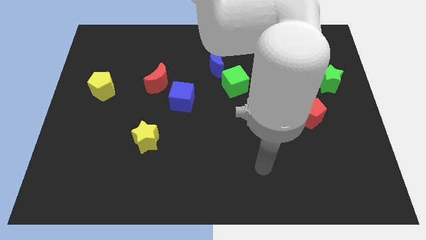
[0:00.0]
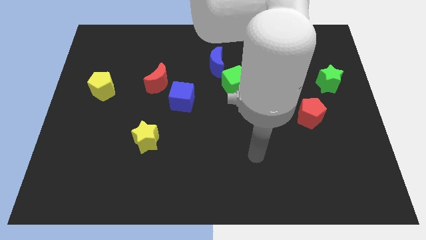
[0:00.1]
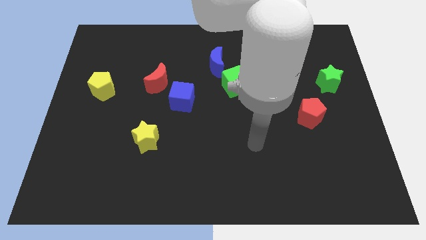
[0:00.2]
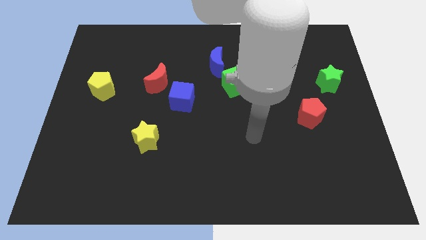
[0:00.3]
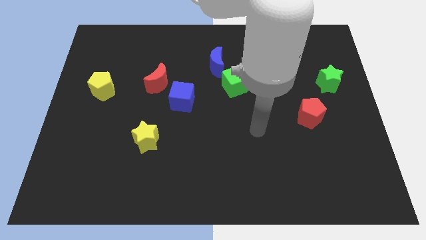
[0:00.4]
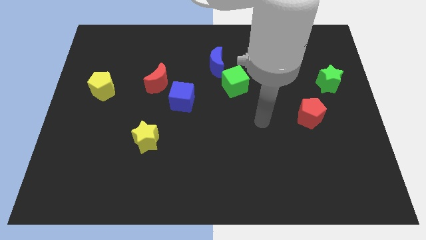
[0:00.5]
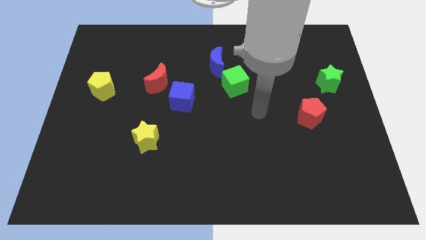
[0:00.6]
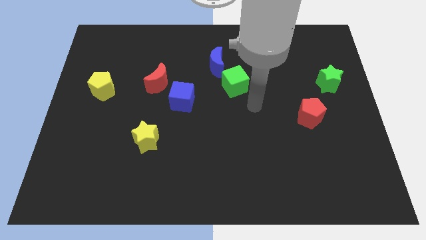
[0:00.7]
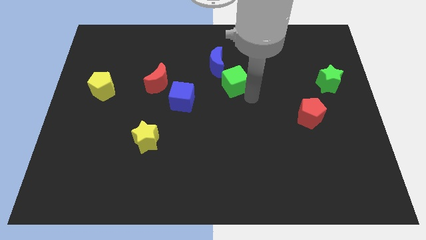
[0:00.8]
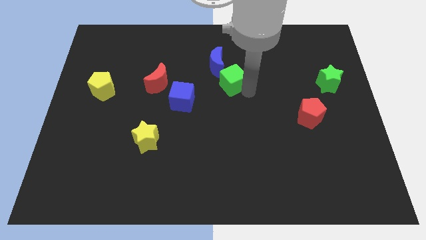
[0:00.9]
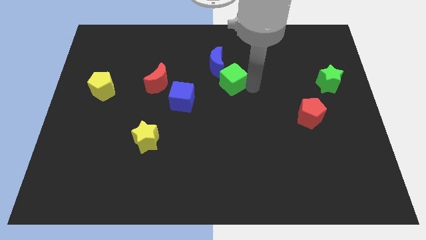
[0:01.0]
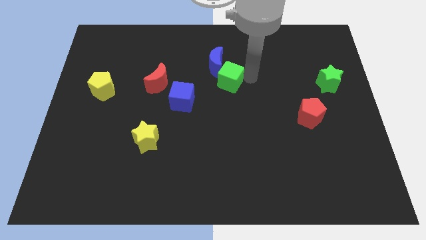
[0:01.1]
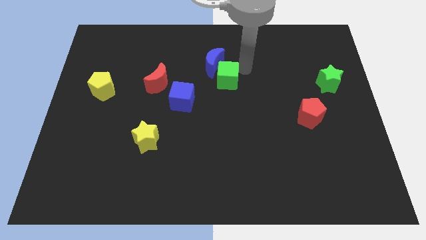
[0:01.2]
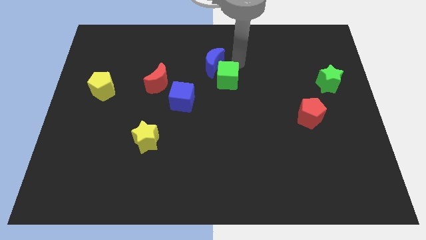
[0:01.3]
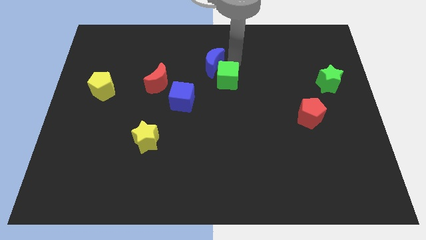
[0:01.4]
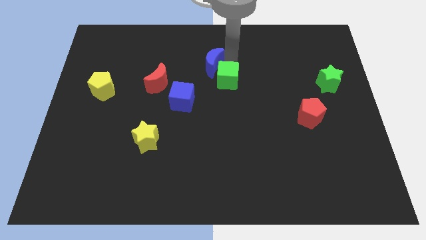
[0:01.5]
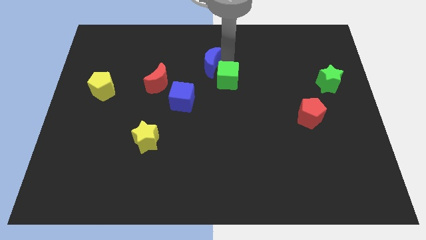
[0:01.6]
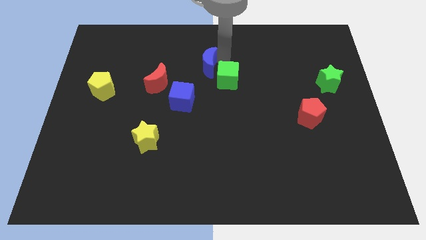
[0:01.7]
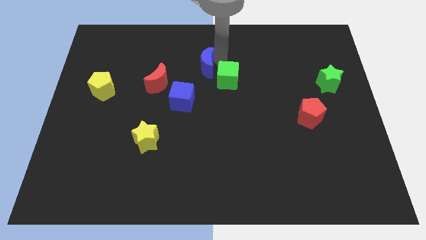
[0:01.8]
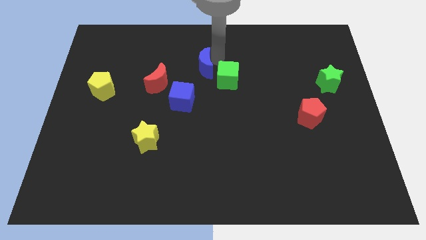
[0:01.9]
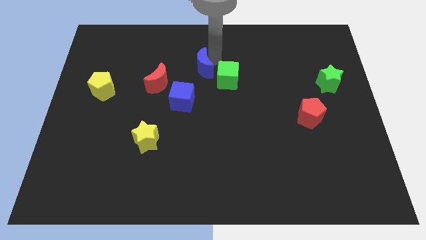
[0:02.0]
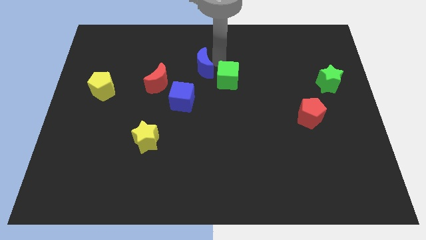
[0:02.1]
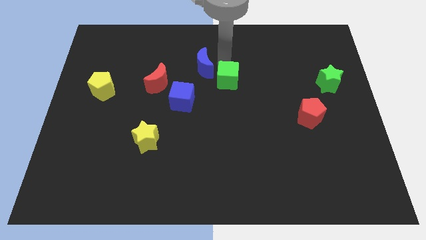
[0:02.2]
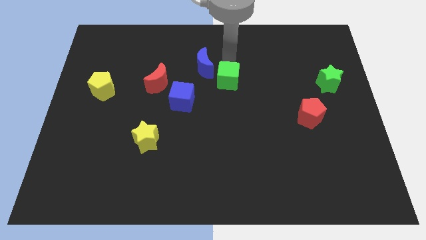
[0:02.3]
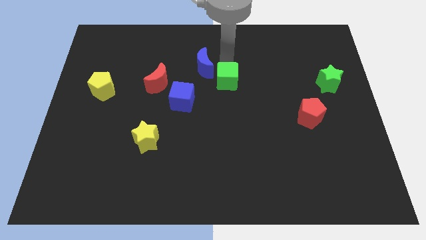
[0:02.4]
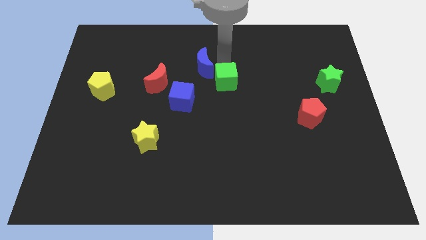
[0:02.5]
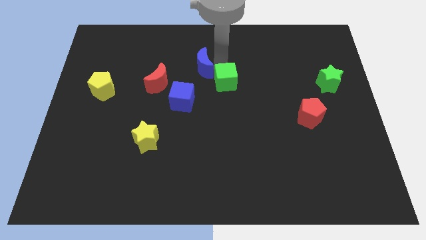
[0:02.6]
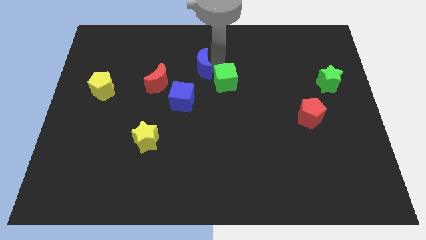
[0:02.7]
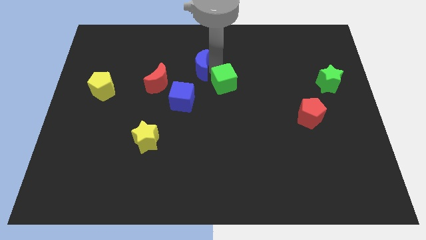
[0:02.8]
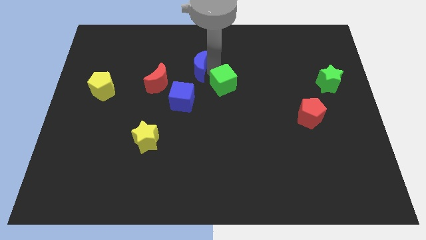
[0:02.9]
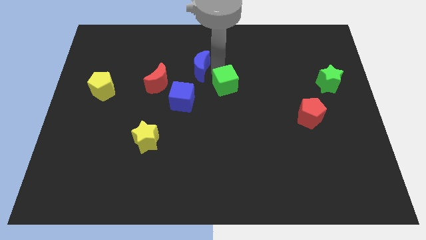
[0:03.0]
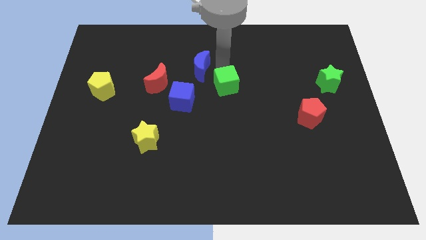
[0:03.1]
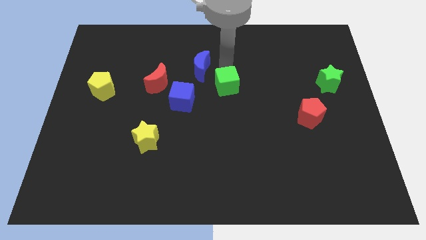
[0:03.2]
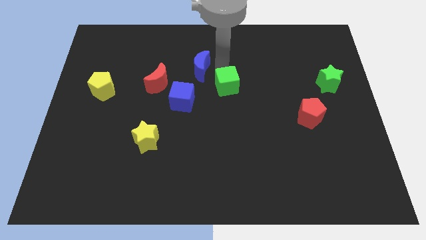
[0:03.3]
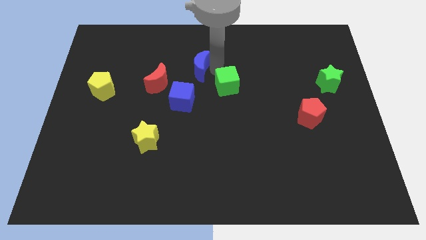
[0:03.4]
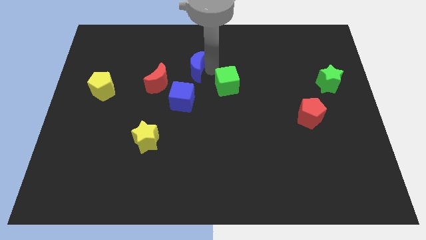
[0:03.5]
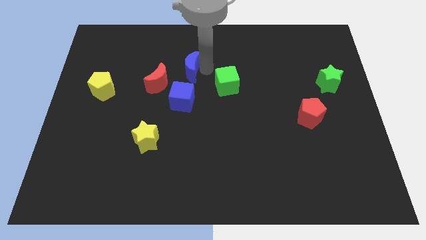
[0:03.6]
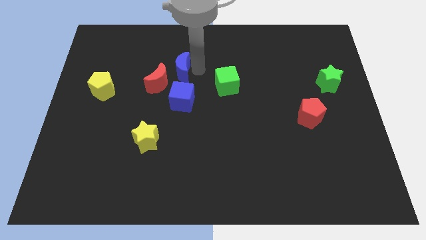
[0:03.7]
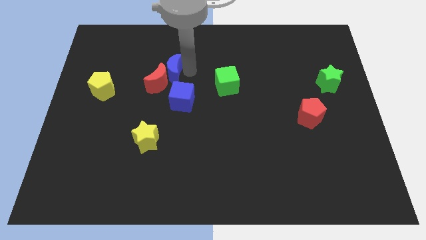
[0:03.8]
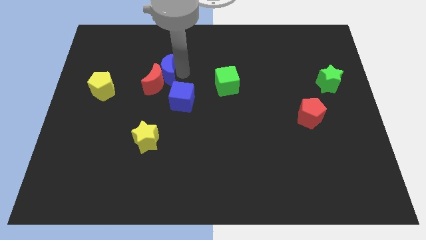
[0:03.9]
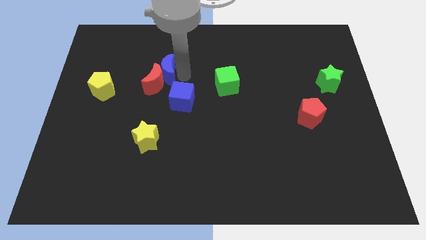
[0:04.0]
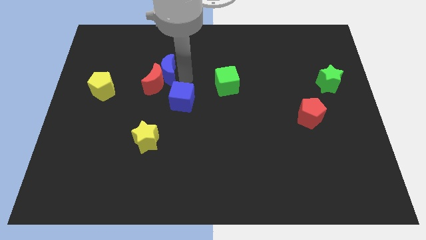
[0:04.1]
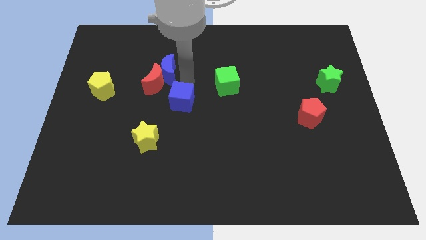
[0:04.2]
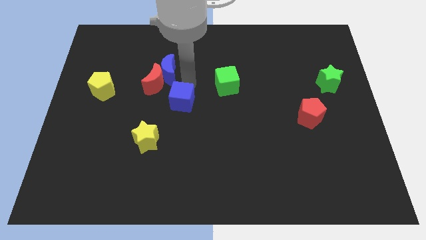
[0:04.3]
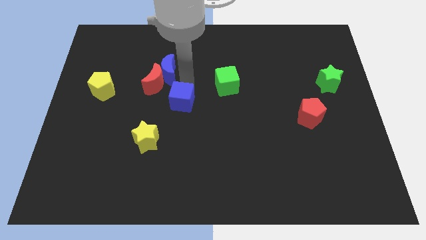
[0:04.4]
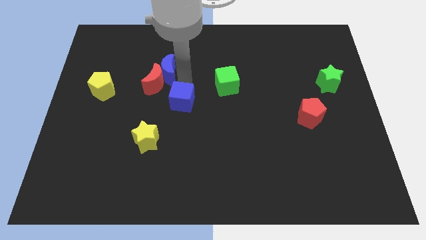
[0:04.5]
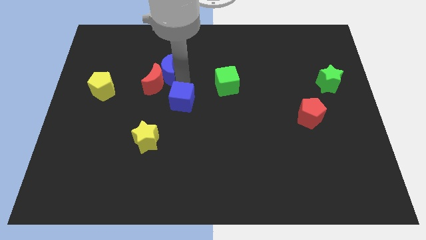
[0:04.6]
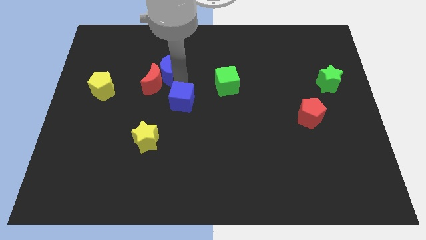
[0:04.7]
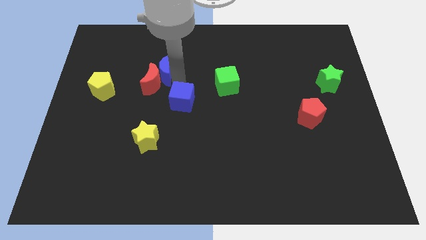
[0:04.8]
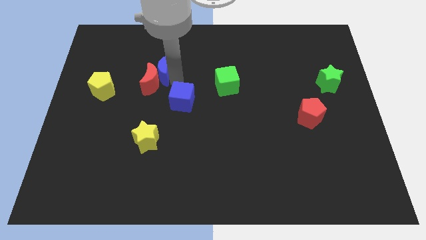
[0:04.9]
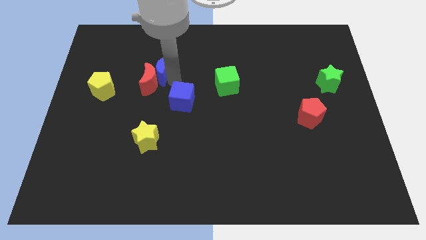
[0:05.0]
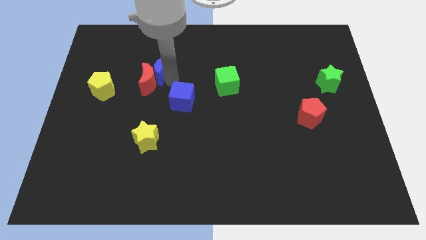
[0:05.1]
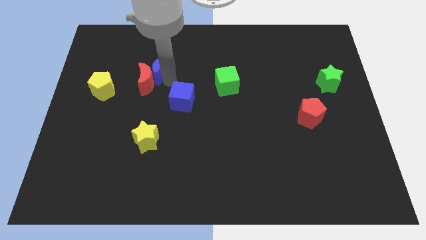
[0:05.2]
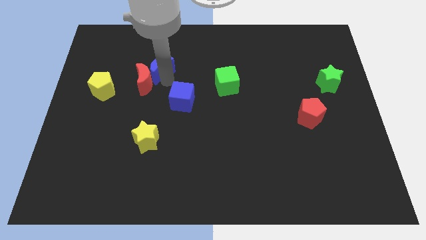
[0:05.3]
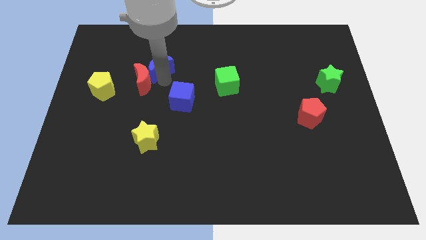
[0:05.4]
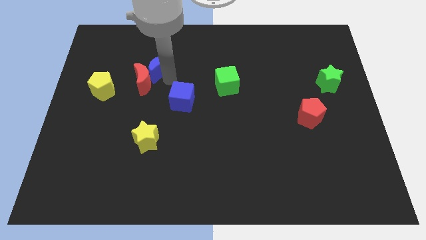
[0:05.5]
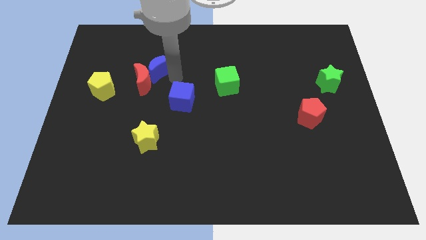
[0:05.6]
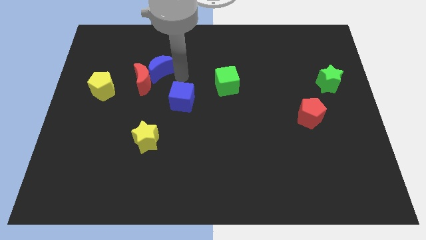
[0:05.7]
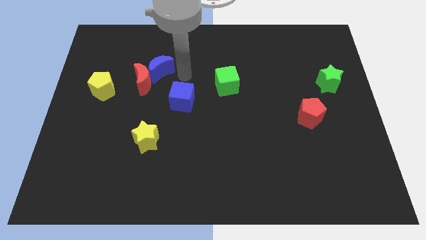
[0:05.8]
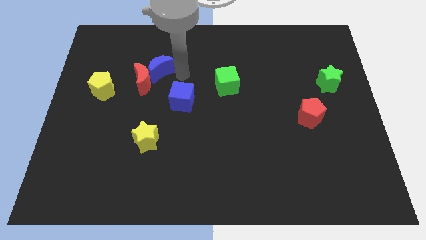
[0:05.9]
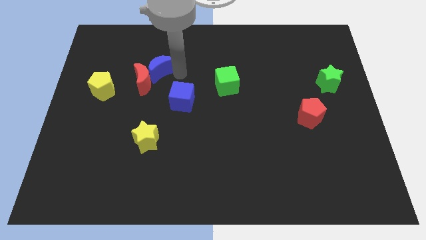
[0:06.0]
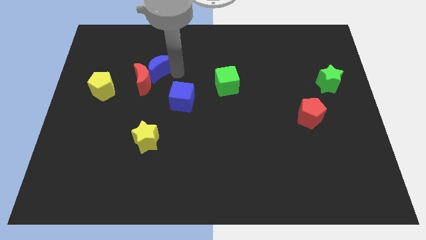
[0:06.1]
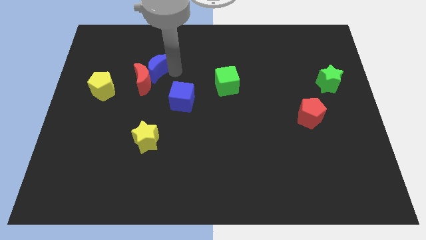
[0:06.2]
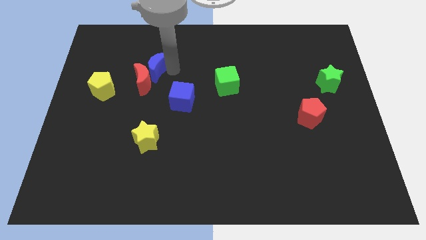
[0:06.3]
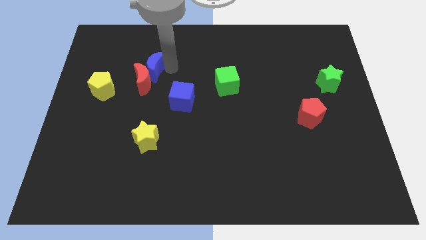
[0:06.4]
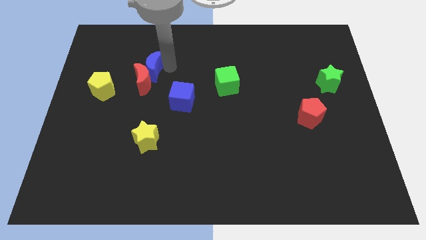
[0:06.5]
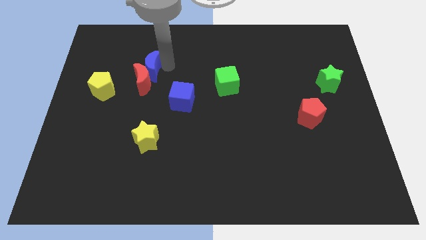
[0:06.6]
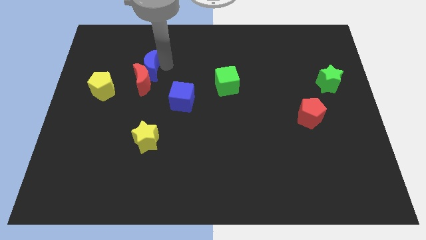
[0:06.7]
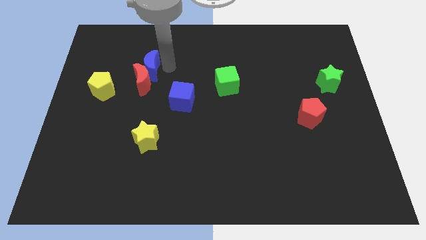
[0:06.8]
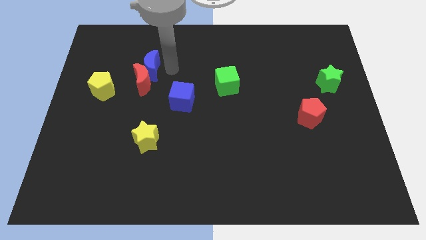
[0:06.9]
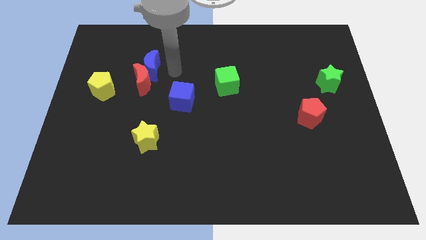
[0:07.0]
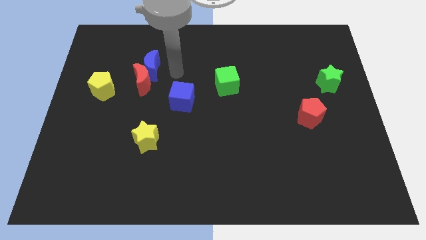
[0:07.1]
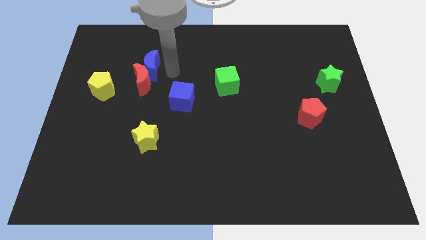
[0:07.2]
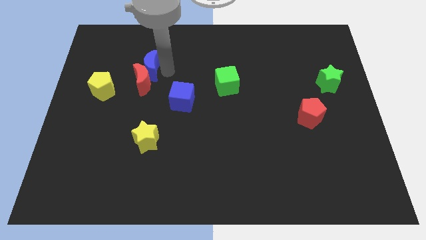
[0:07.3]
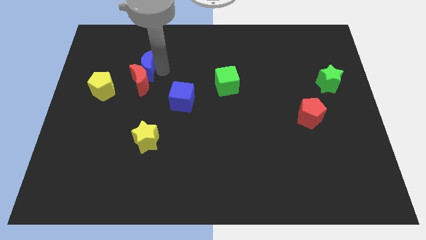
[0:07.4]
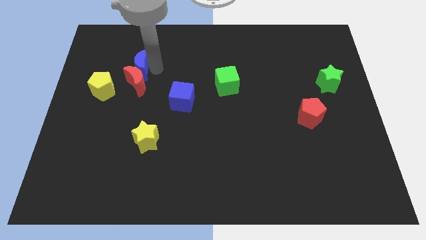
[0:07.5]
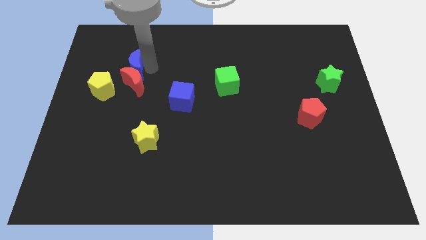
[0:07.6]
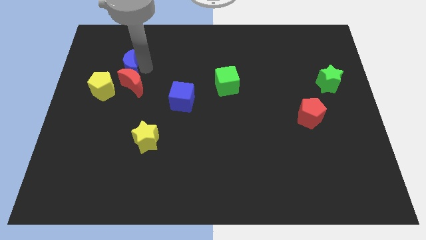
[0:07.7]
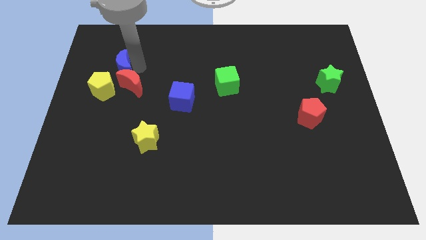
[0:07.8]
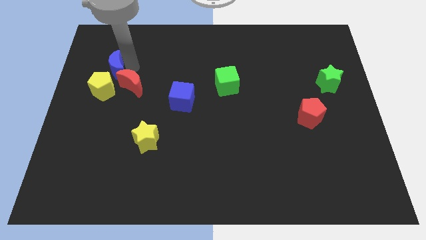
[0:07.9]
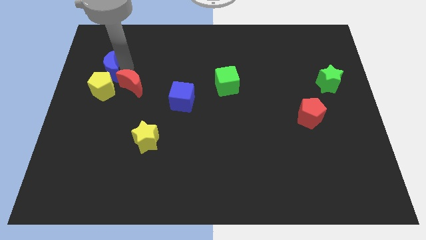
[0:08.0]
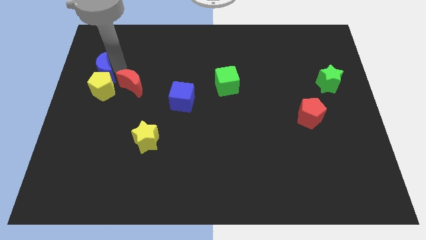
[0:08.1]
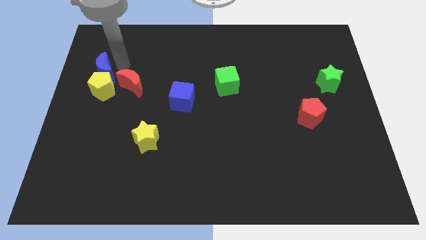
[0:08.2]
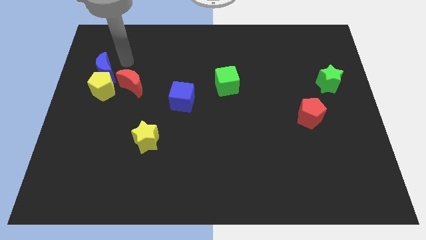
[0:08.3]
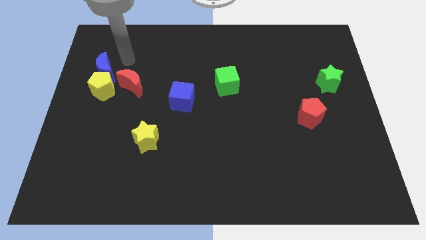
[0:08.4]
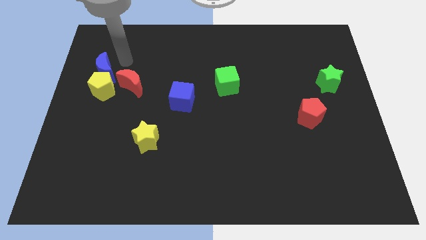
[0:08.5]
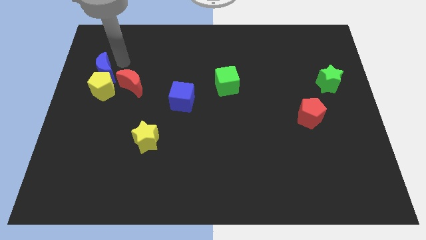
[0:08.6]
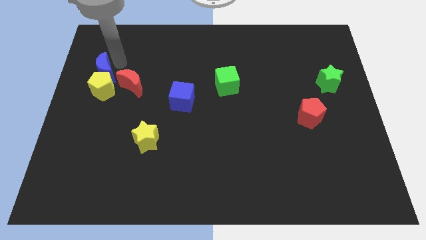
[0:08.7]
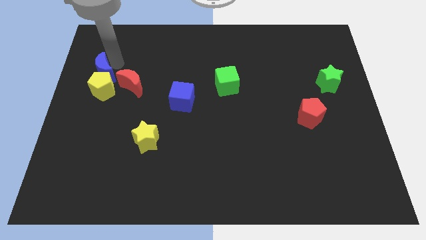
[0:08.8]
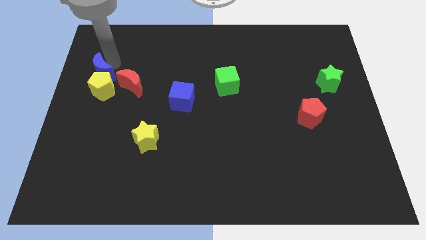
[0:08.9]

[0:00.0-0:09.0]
slide the blue moon to the left side of the board
